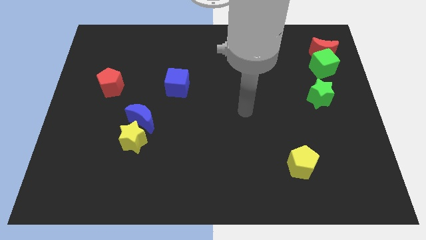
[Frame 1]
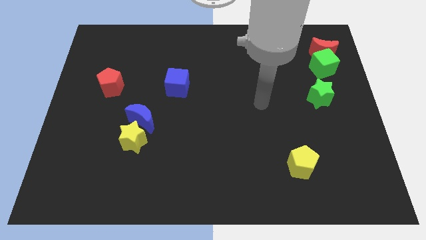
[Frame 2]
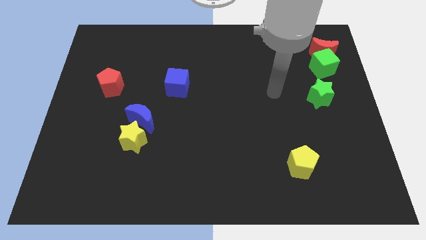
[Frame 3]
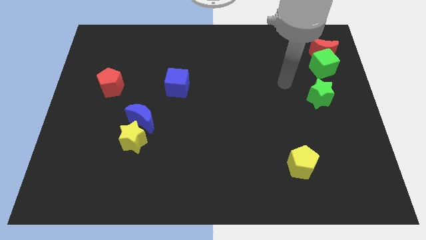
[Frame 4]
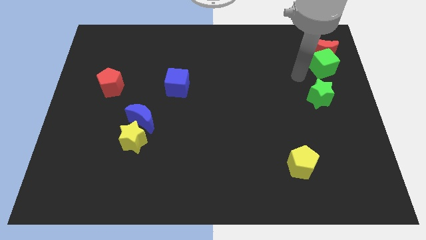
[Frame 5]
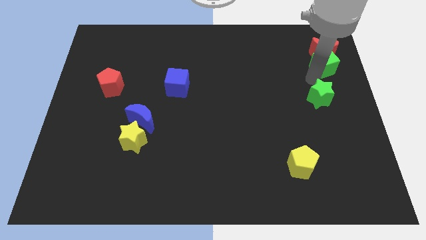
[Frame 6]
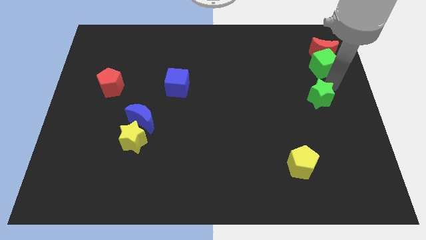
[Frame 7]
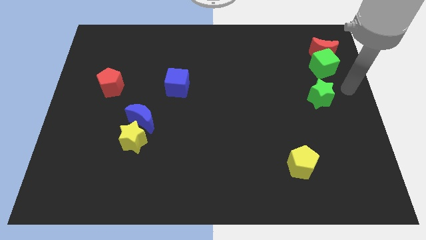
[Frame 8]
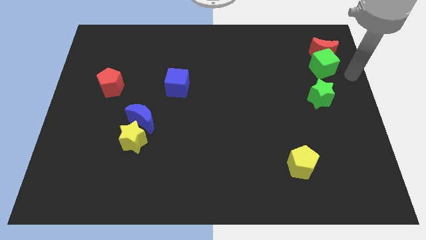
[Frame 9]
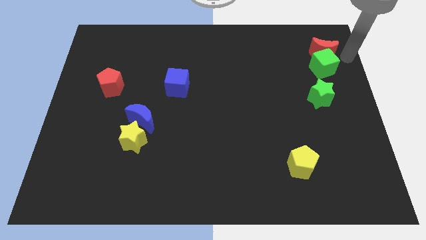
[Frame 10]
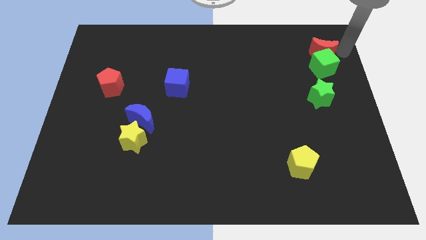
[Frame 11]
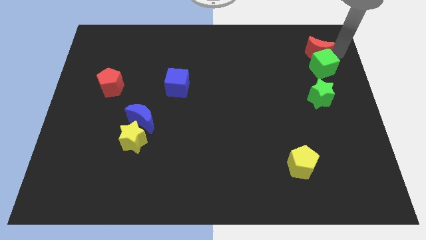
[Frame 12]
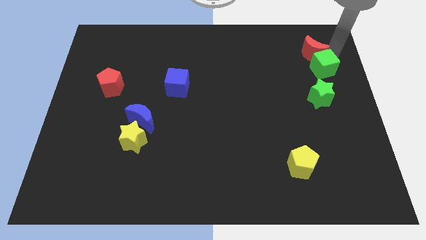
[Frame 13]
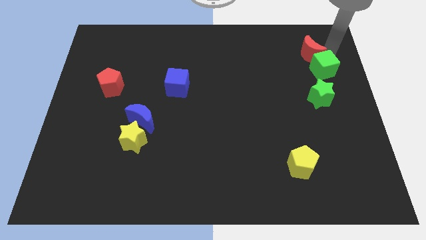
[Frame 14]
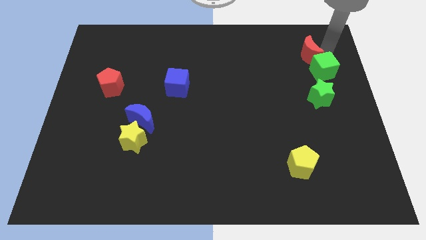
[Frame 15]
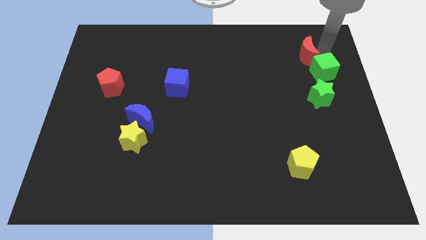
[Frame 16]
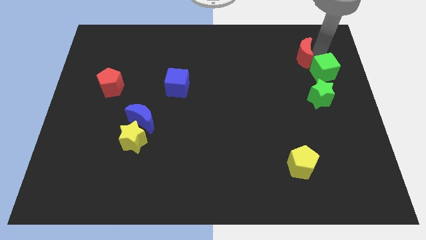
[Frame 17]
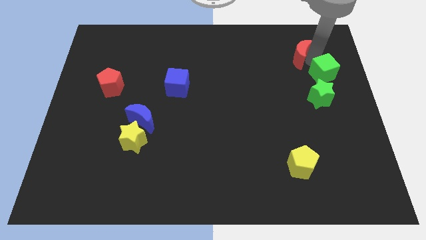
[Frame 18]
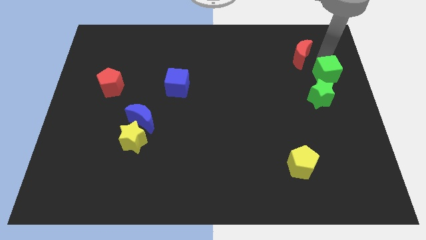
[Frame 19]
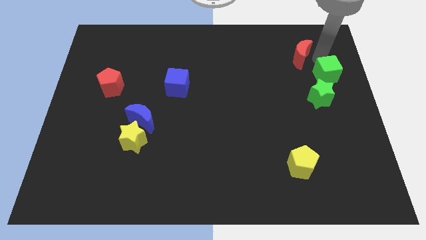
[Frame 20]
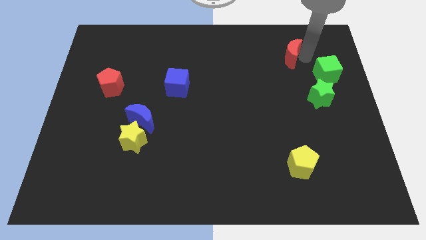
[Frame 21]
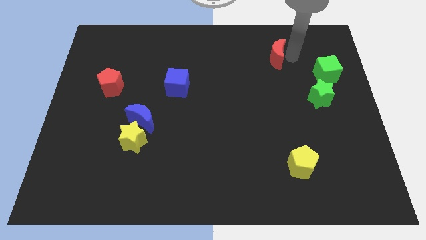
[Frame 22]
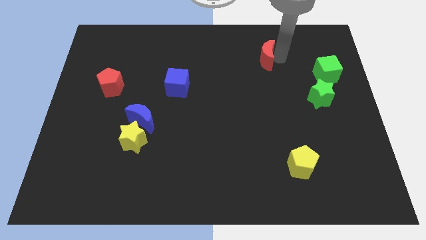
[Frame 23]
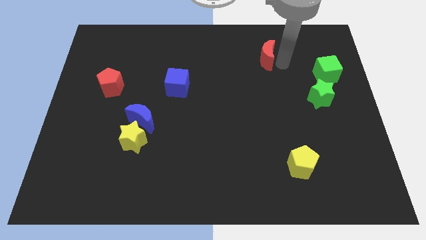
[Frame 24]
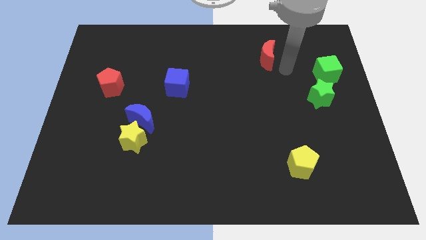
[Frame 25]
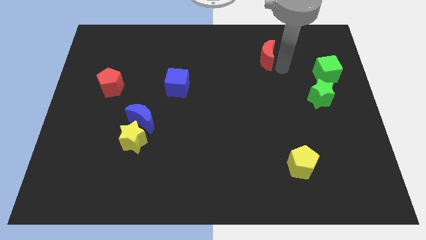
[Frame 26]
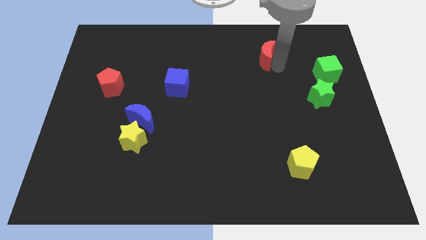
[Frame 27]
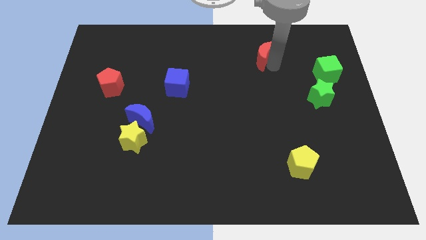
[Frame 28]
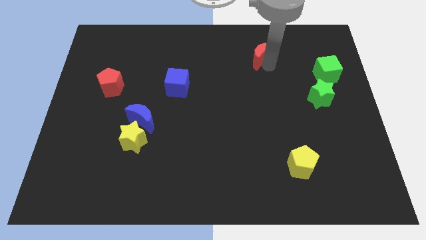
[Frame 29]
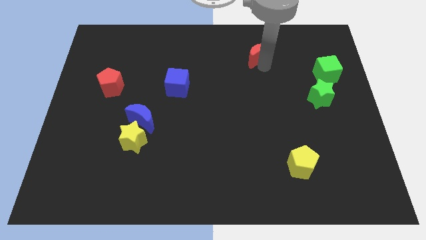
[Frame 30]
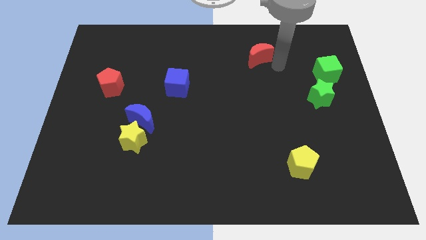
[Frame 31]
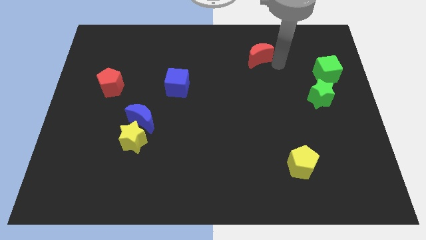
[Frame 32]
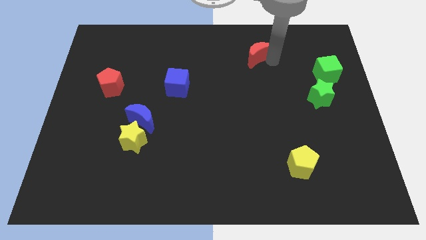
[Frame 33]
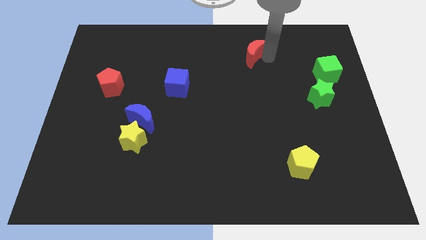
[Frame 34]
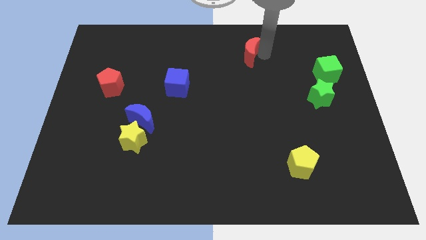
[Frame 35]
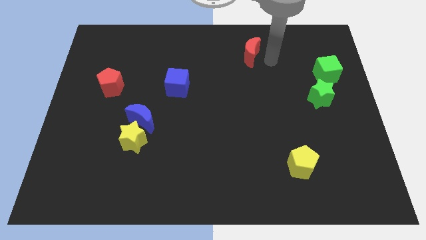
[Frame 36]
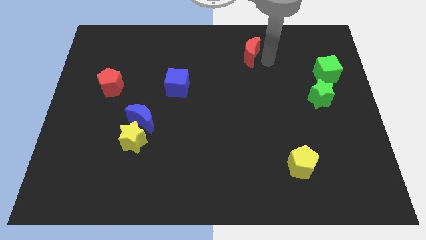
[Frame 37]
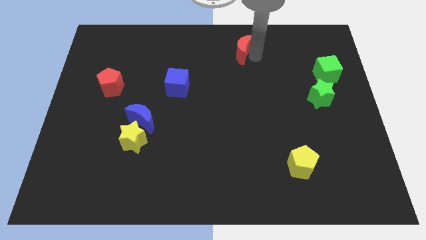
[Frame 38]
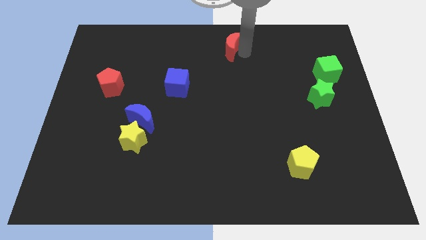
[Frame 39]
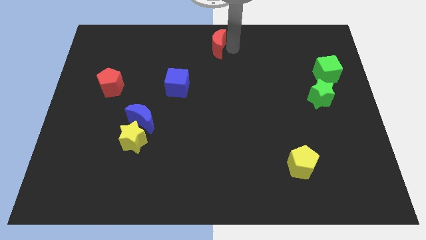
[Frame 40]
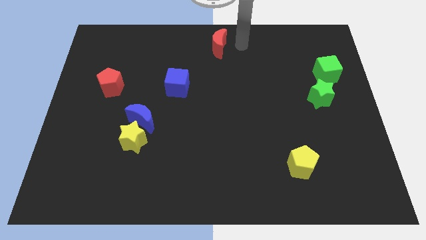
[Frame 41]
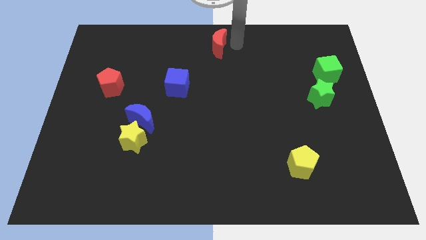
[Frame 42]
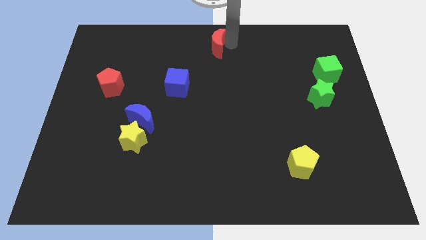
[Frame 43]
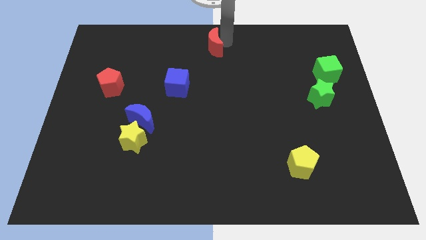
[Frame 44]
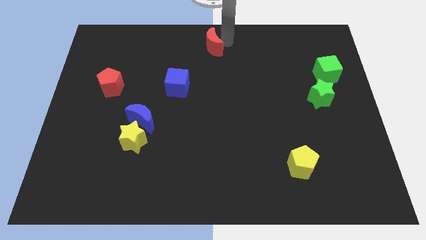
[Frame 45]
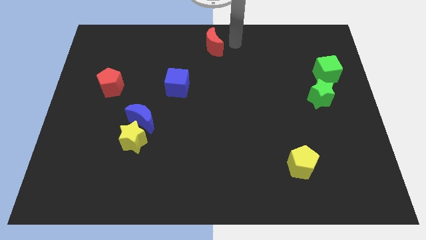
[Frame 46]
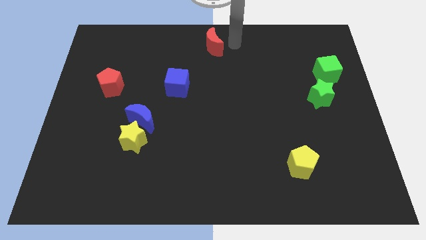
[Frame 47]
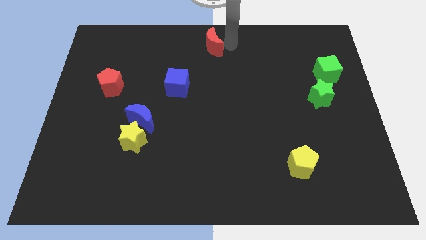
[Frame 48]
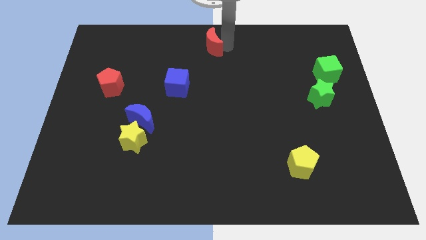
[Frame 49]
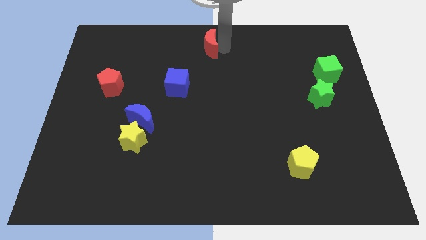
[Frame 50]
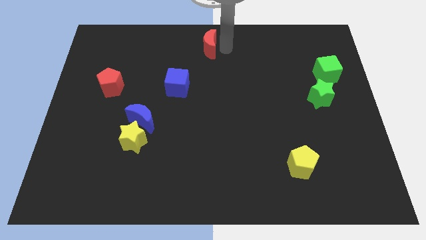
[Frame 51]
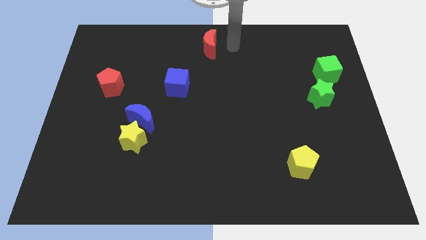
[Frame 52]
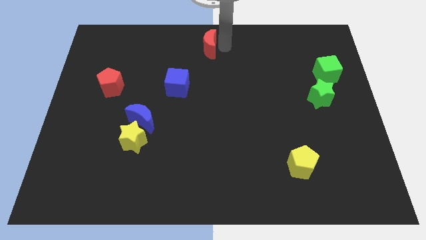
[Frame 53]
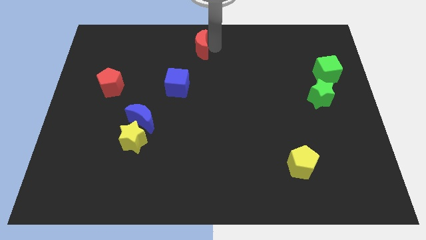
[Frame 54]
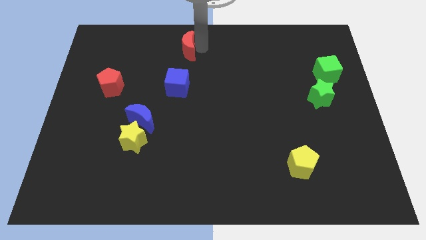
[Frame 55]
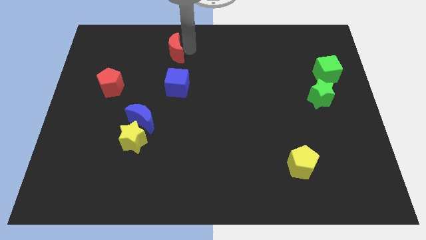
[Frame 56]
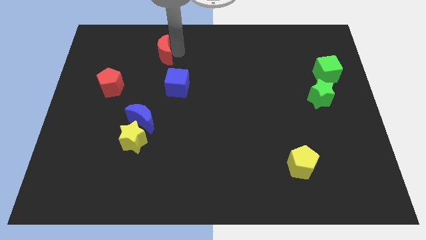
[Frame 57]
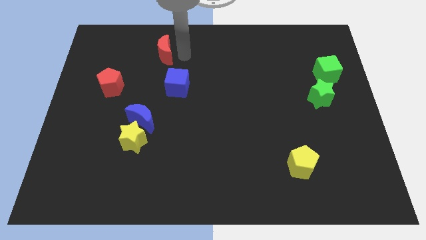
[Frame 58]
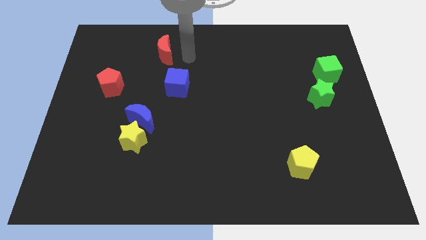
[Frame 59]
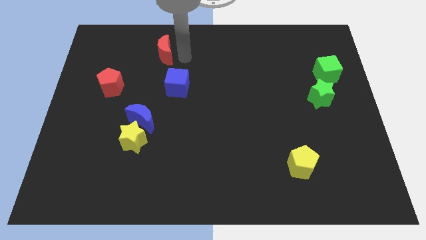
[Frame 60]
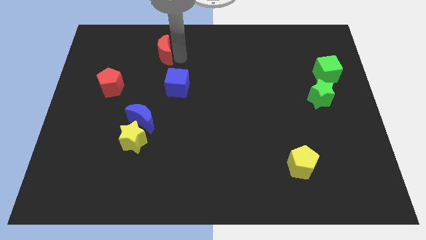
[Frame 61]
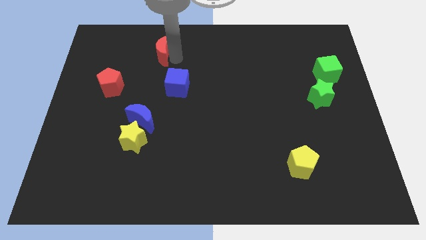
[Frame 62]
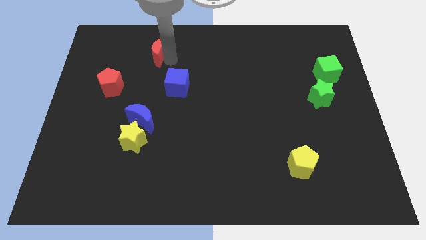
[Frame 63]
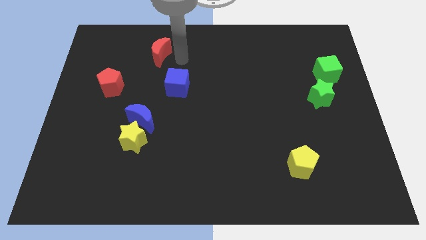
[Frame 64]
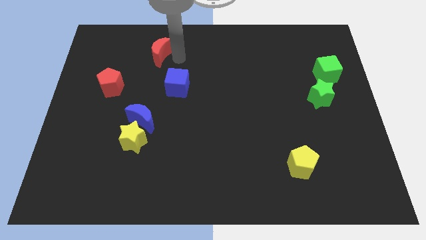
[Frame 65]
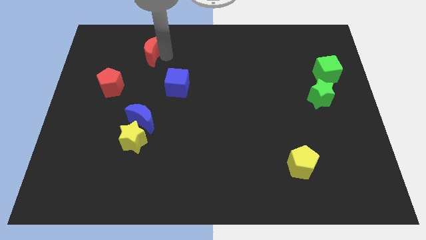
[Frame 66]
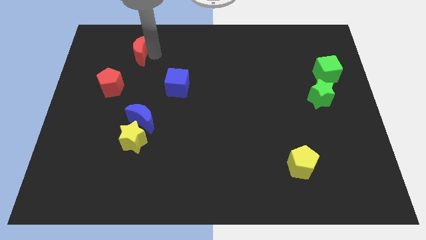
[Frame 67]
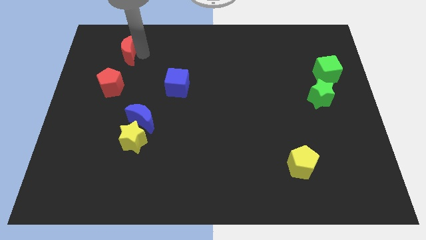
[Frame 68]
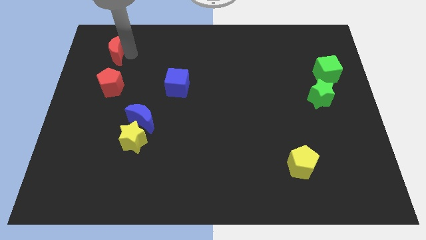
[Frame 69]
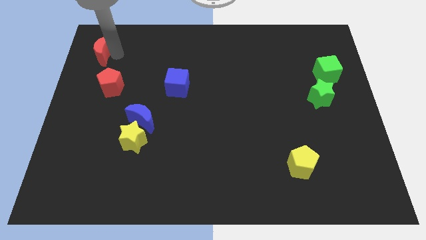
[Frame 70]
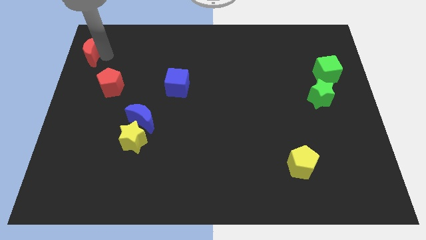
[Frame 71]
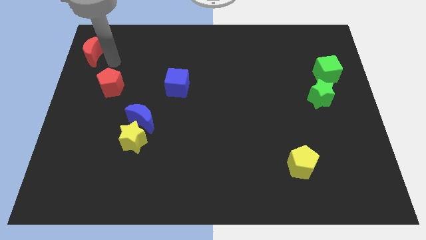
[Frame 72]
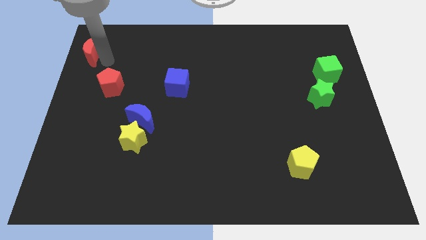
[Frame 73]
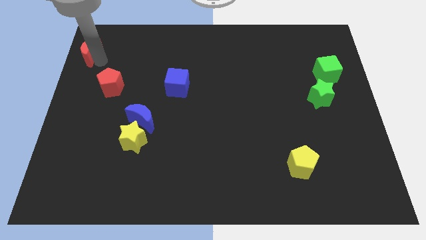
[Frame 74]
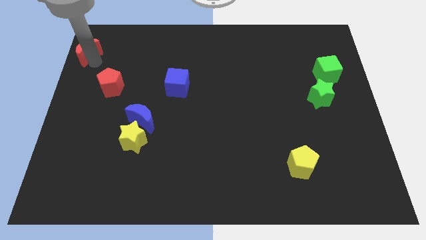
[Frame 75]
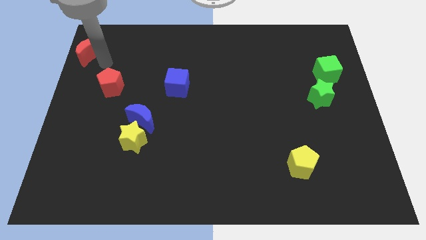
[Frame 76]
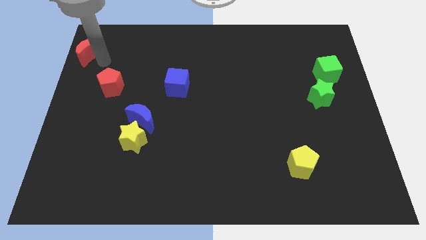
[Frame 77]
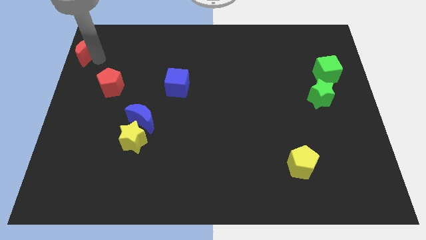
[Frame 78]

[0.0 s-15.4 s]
push the red moon to the top left
